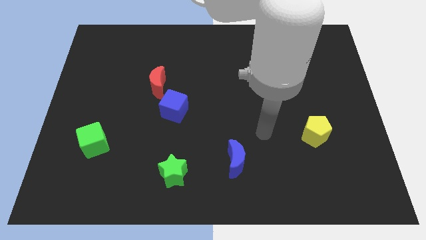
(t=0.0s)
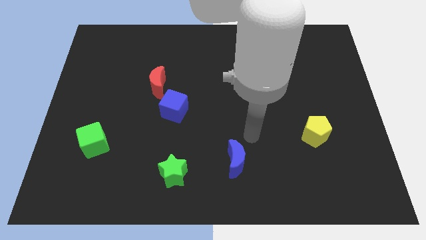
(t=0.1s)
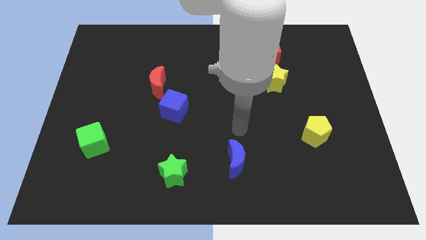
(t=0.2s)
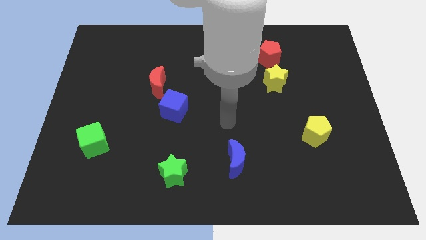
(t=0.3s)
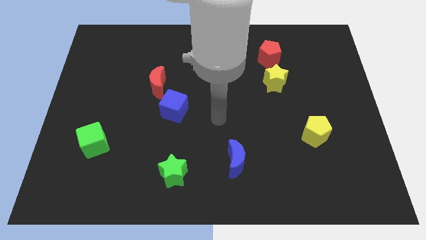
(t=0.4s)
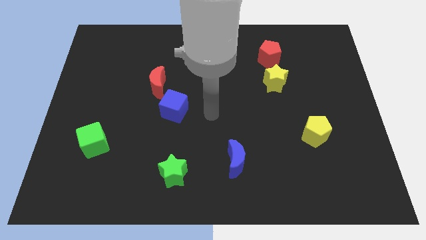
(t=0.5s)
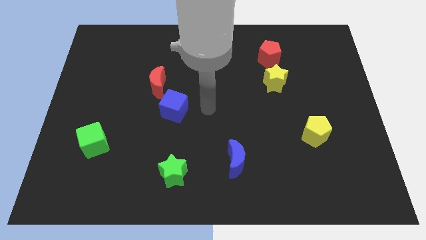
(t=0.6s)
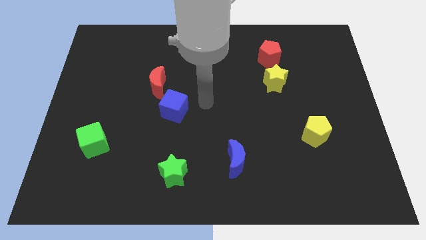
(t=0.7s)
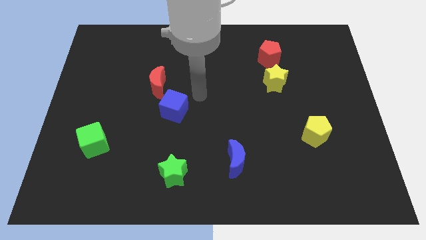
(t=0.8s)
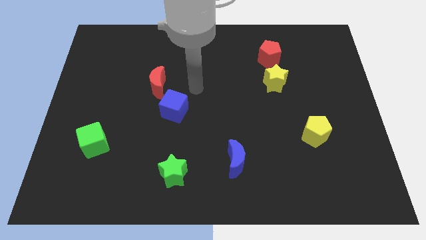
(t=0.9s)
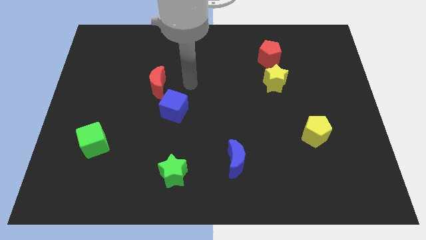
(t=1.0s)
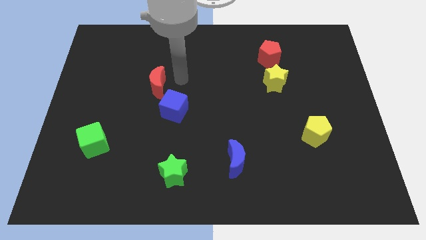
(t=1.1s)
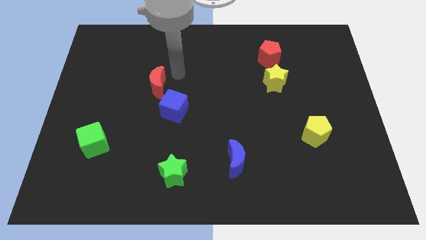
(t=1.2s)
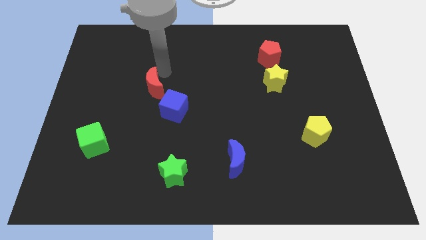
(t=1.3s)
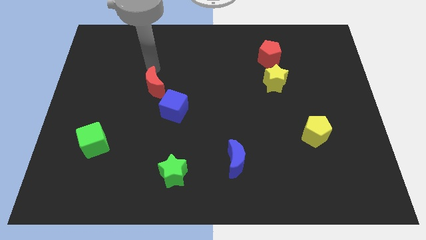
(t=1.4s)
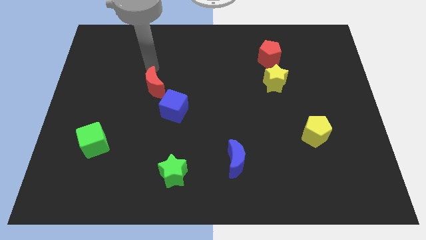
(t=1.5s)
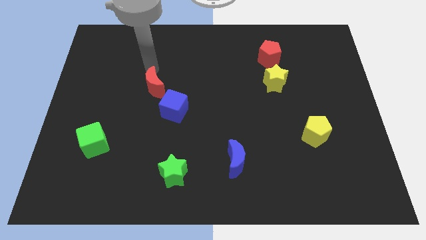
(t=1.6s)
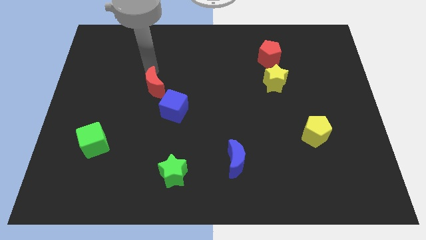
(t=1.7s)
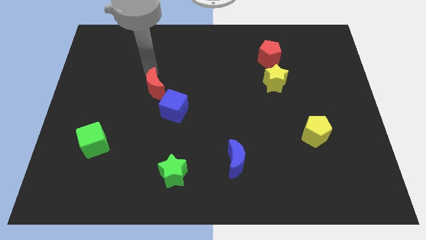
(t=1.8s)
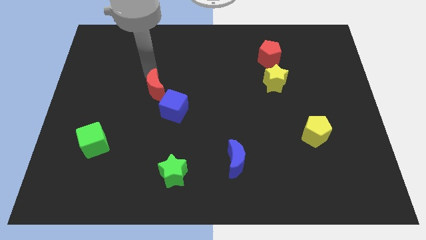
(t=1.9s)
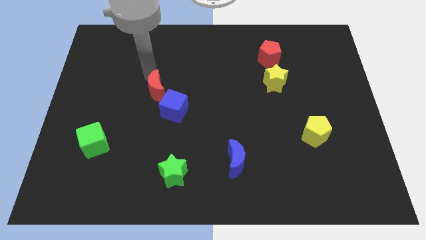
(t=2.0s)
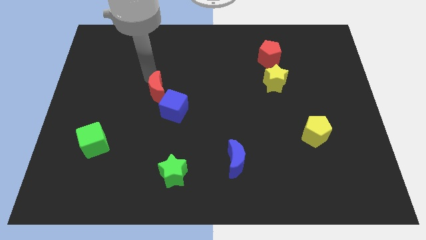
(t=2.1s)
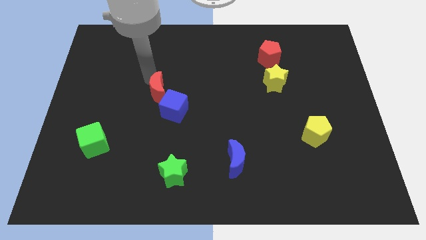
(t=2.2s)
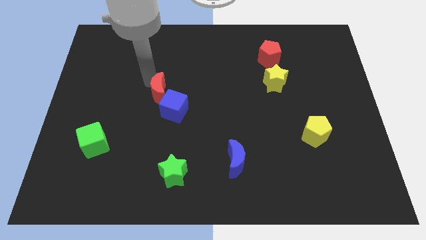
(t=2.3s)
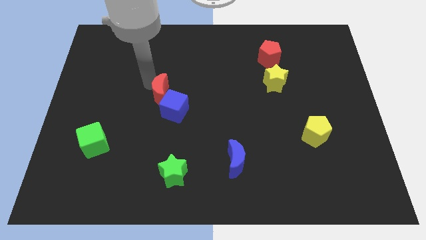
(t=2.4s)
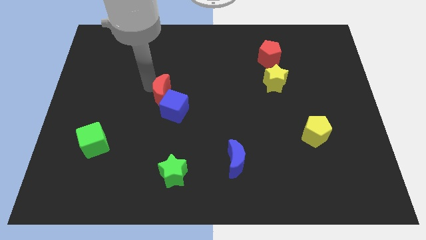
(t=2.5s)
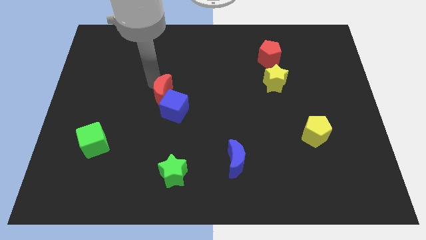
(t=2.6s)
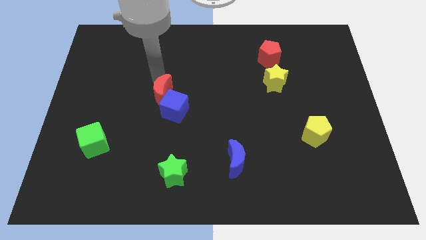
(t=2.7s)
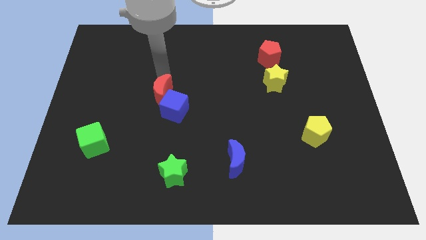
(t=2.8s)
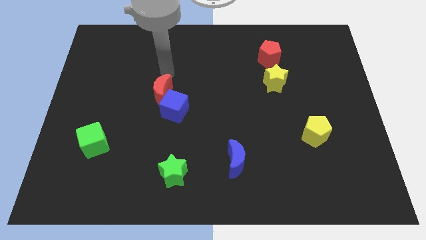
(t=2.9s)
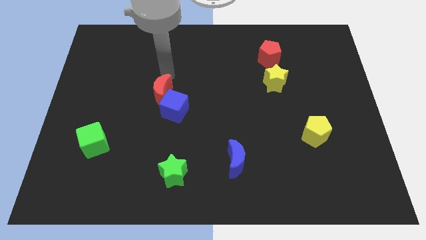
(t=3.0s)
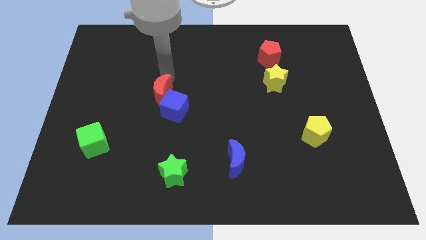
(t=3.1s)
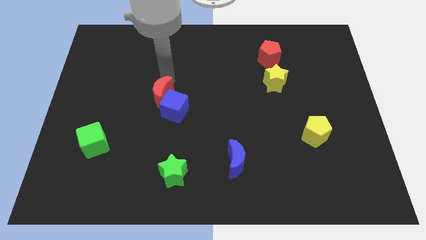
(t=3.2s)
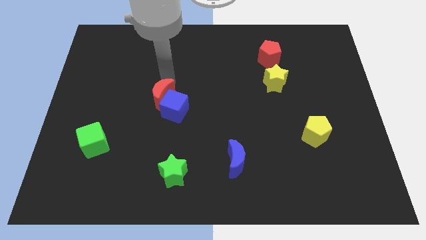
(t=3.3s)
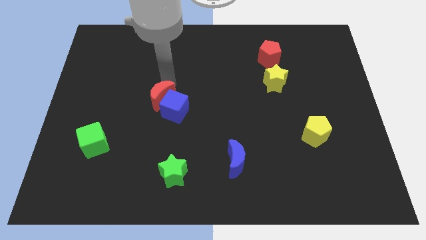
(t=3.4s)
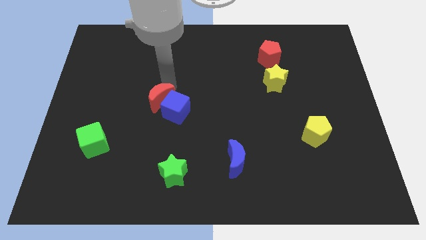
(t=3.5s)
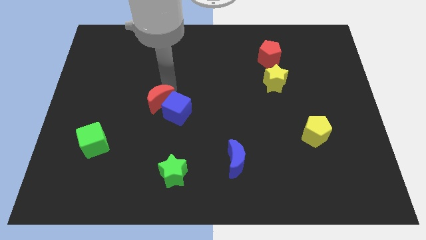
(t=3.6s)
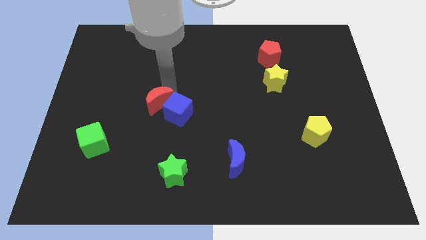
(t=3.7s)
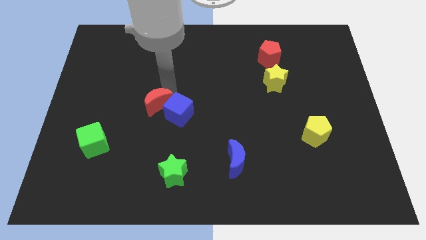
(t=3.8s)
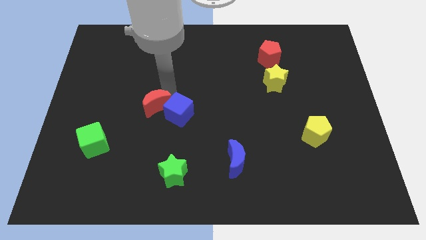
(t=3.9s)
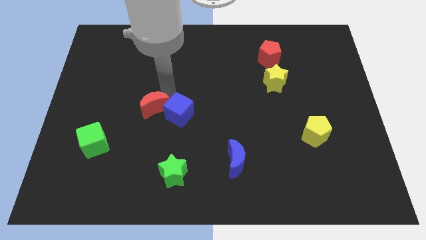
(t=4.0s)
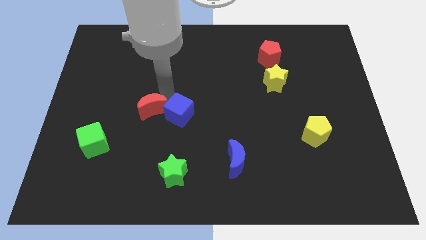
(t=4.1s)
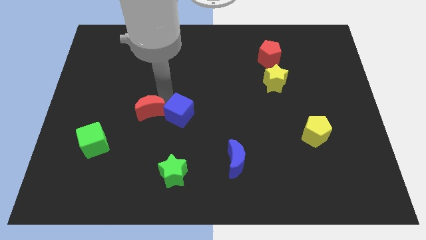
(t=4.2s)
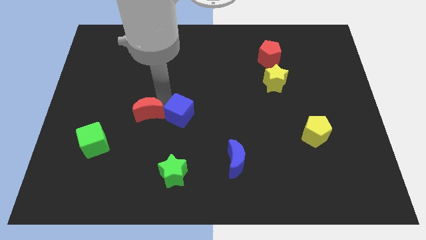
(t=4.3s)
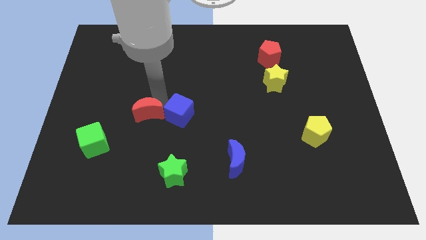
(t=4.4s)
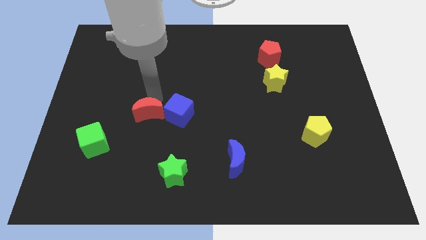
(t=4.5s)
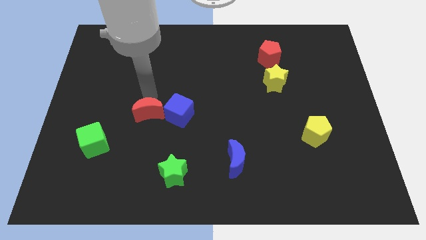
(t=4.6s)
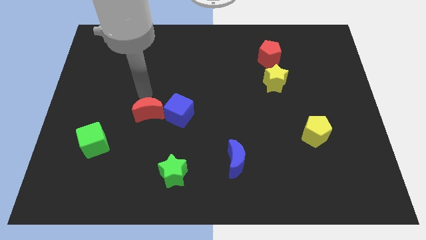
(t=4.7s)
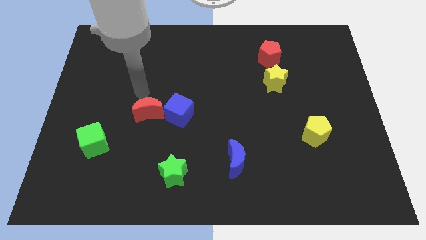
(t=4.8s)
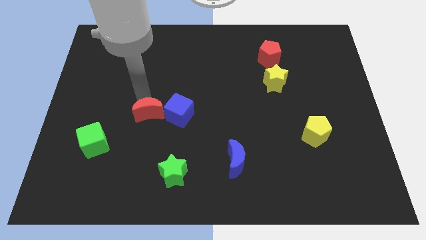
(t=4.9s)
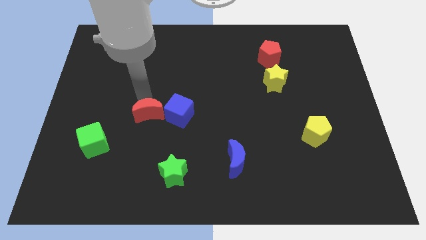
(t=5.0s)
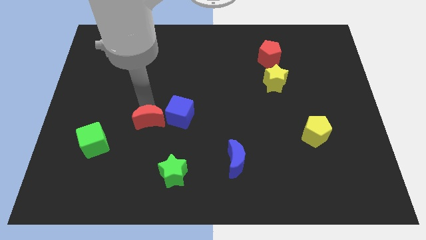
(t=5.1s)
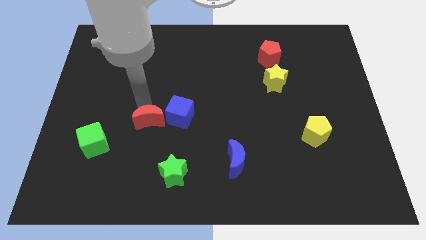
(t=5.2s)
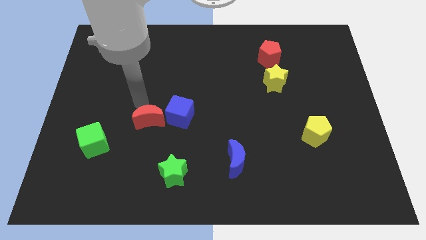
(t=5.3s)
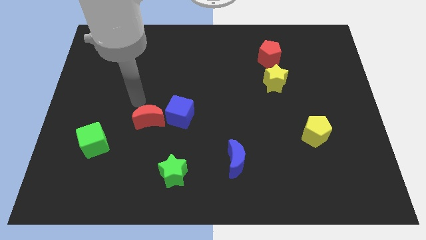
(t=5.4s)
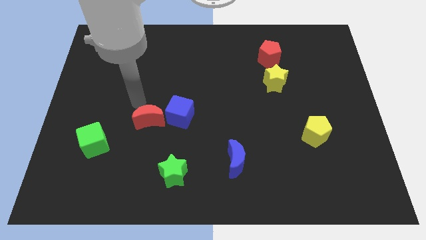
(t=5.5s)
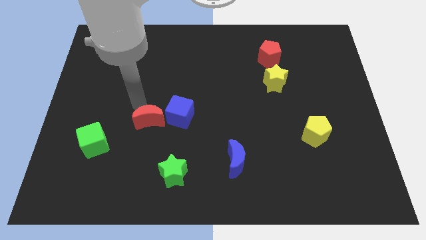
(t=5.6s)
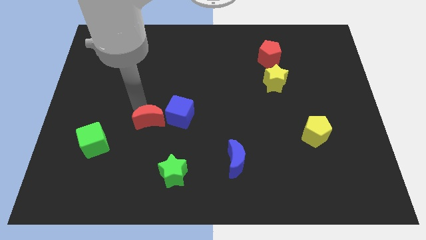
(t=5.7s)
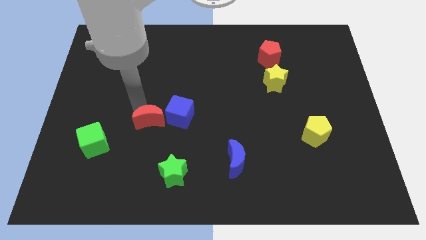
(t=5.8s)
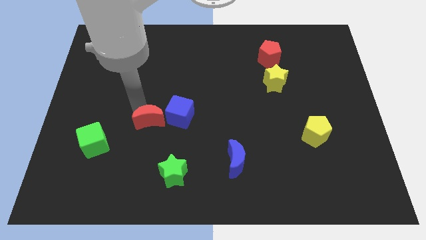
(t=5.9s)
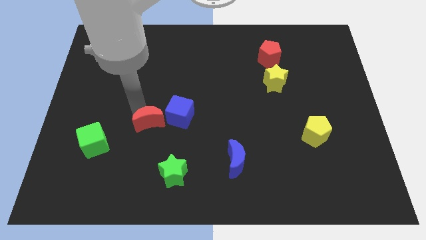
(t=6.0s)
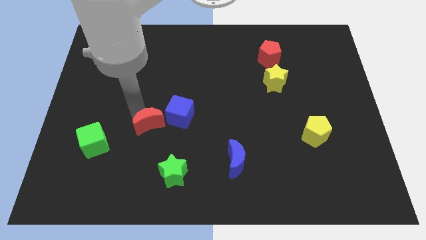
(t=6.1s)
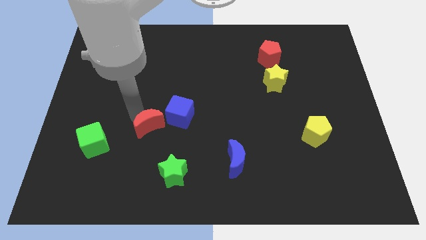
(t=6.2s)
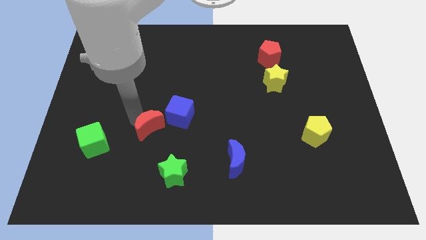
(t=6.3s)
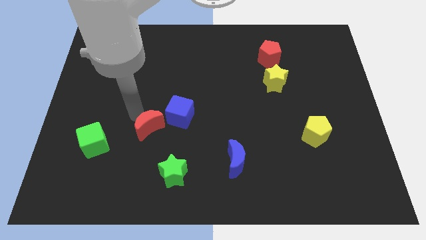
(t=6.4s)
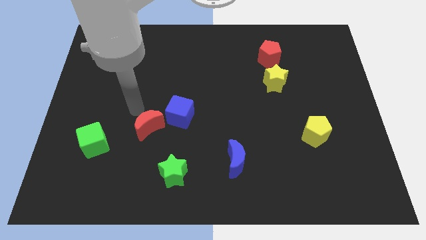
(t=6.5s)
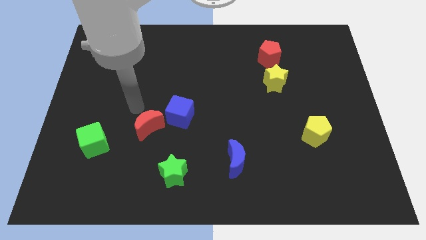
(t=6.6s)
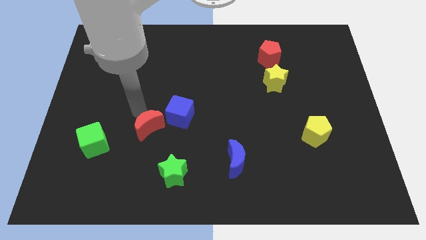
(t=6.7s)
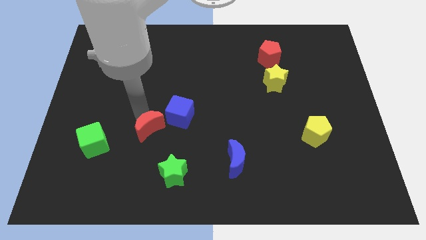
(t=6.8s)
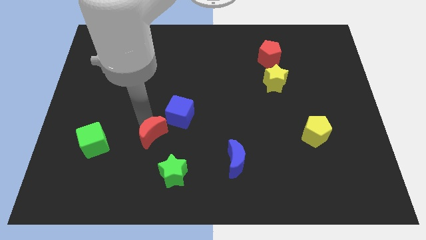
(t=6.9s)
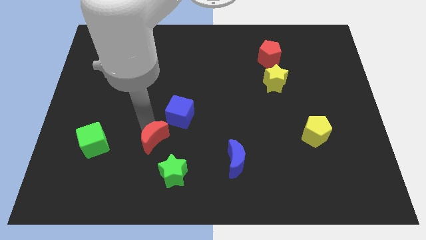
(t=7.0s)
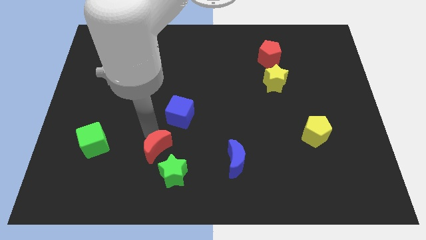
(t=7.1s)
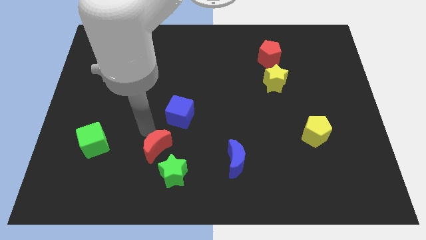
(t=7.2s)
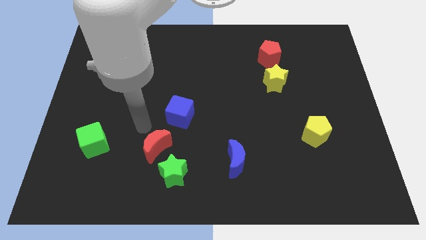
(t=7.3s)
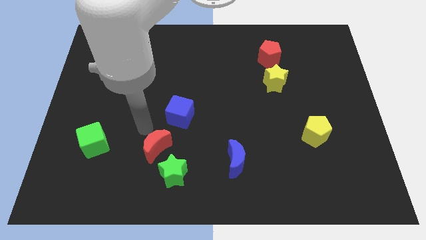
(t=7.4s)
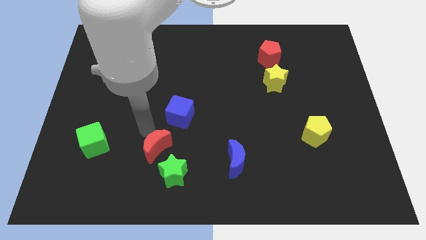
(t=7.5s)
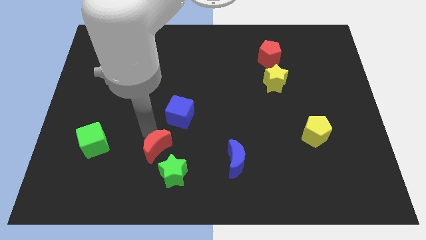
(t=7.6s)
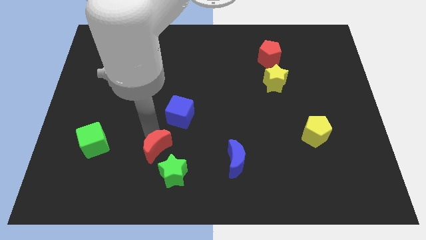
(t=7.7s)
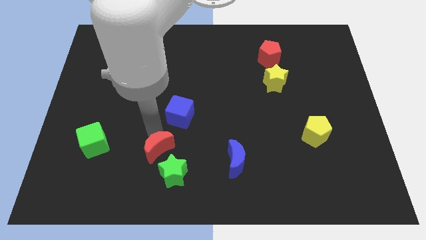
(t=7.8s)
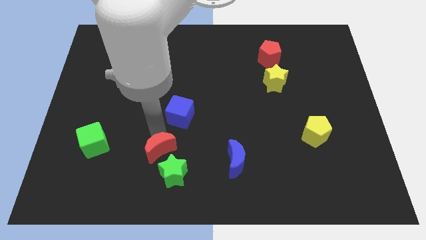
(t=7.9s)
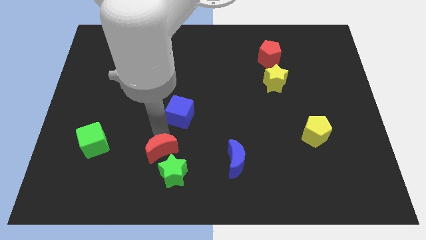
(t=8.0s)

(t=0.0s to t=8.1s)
put the red moon towards the green star
